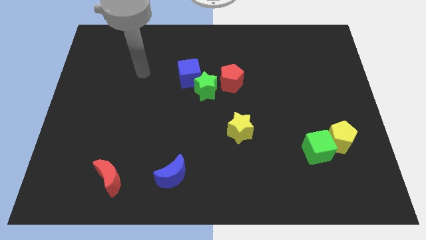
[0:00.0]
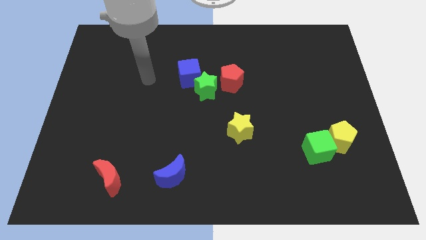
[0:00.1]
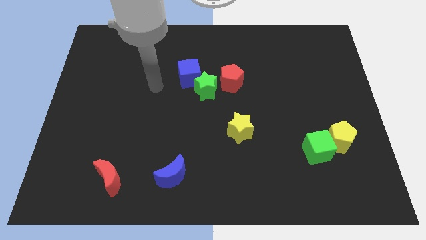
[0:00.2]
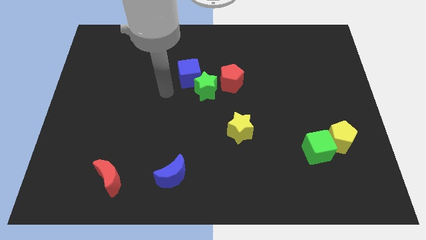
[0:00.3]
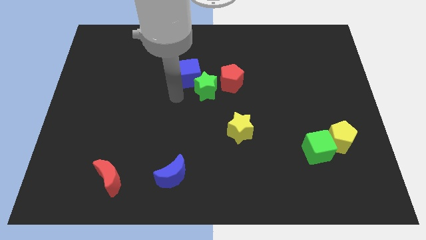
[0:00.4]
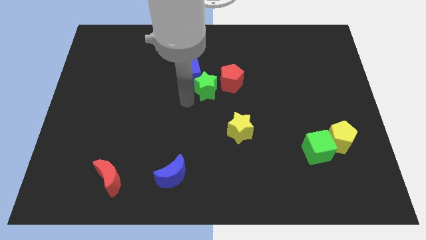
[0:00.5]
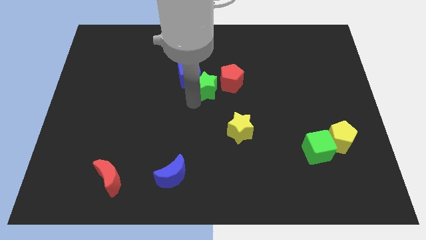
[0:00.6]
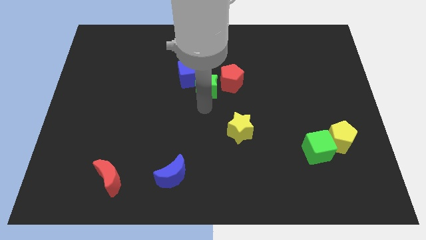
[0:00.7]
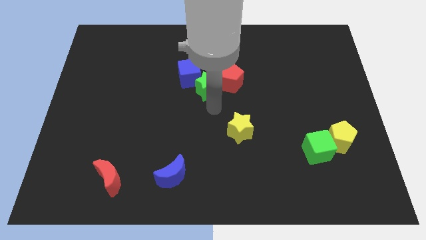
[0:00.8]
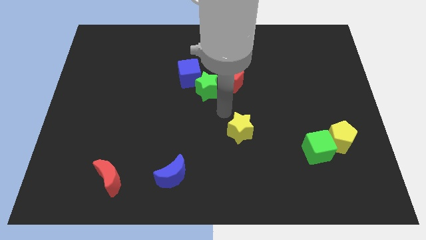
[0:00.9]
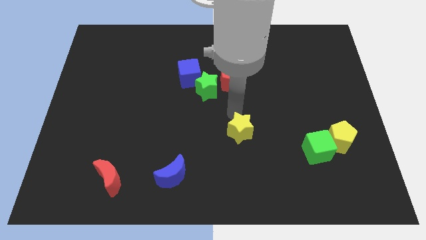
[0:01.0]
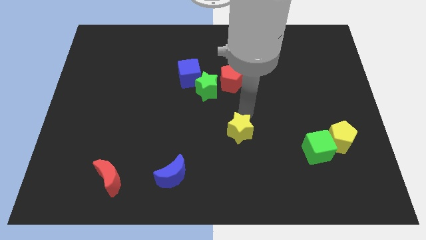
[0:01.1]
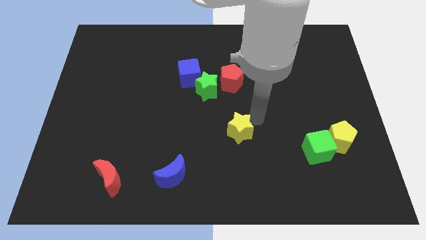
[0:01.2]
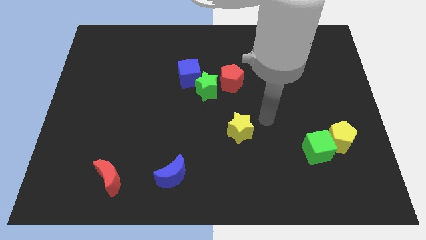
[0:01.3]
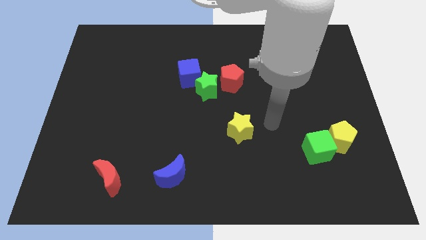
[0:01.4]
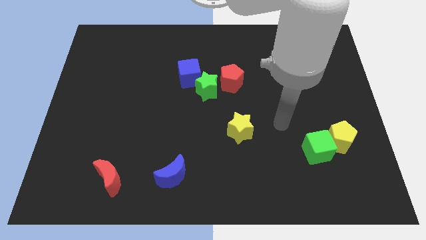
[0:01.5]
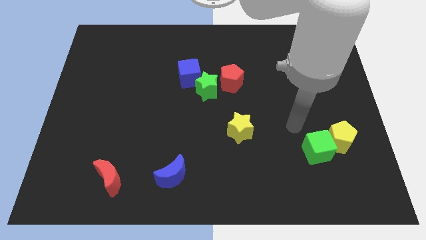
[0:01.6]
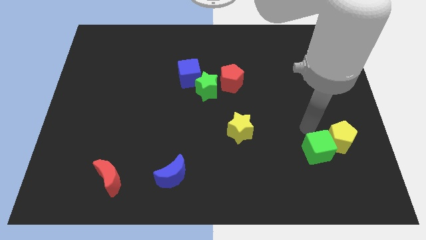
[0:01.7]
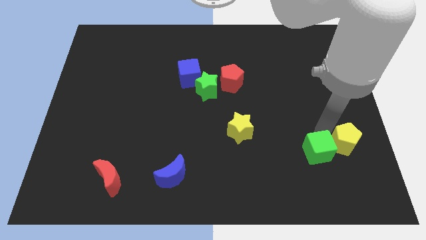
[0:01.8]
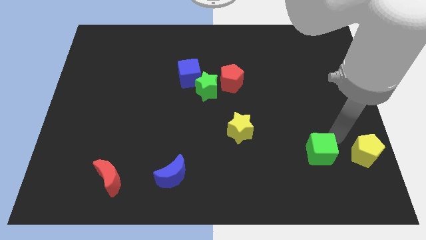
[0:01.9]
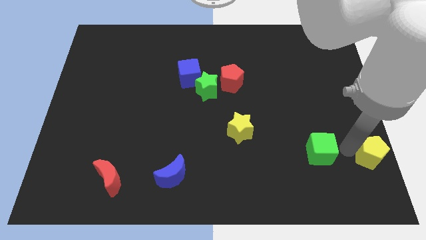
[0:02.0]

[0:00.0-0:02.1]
pull the green cube apart from the yellow pentagon

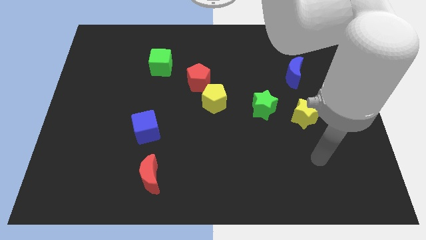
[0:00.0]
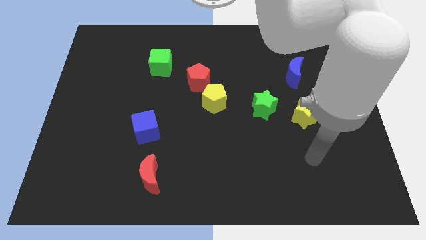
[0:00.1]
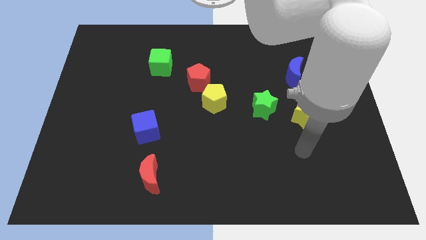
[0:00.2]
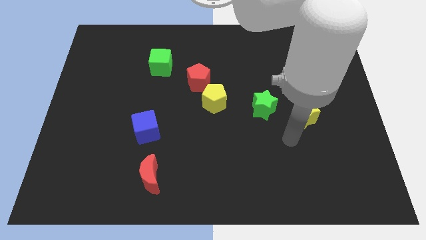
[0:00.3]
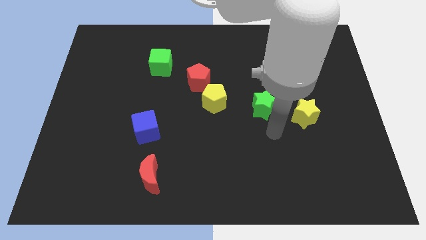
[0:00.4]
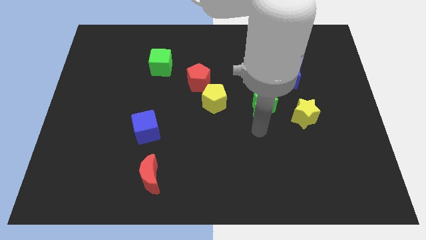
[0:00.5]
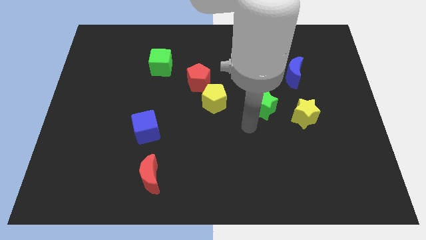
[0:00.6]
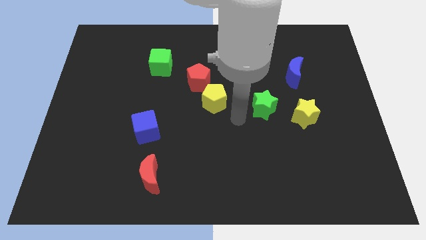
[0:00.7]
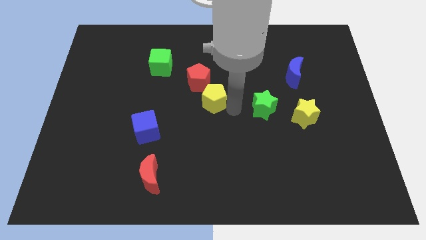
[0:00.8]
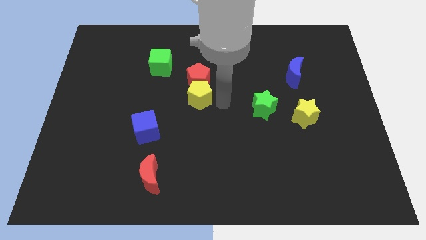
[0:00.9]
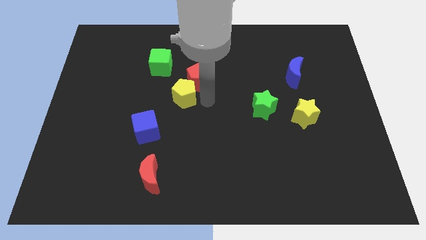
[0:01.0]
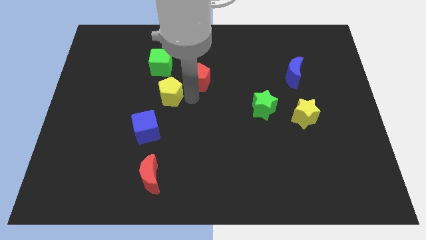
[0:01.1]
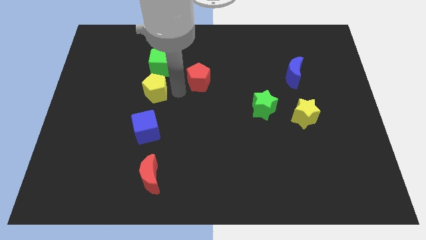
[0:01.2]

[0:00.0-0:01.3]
move the red pentagon away from the yellow pentagon

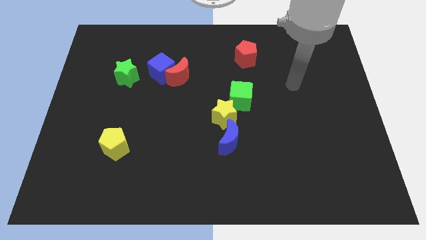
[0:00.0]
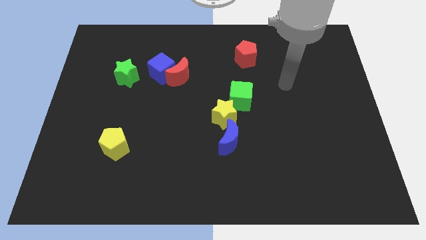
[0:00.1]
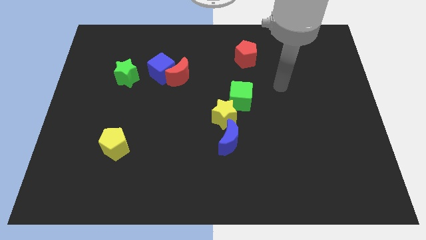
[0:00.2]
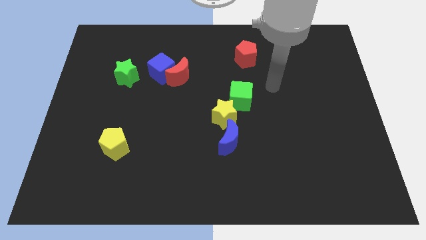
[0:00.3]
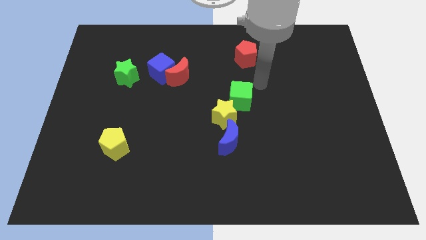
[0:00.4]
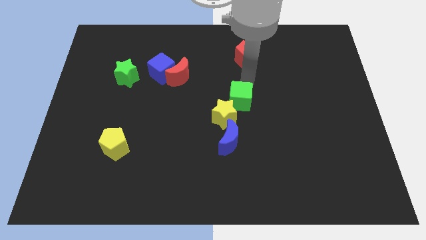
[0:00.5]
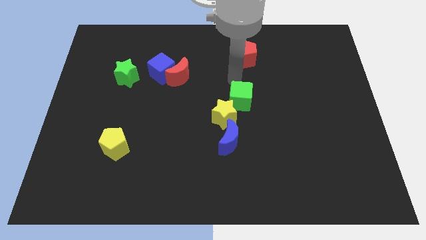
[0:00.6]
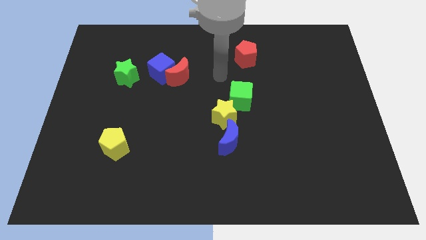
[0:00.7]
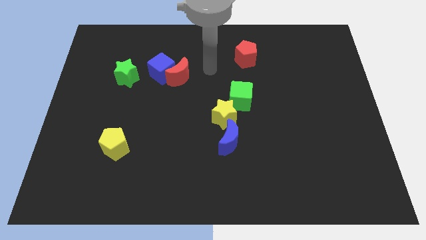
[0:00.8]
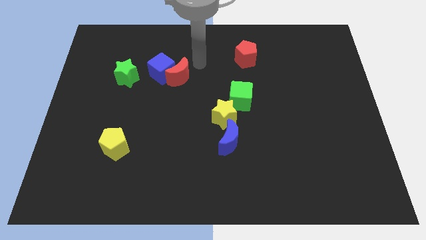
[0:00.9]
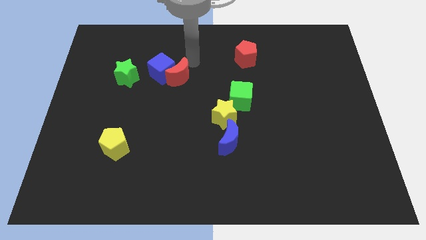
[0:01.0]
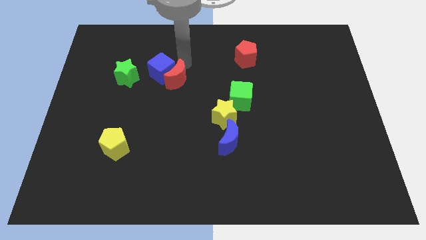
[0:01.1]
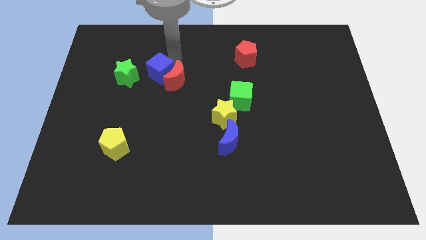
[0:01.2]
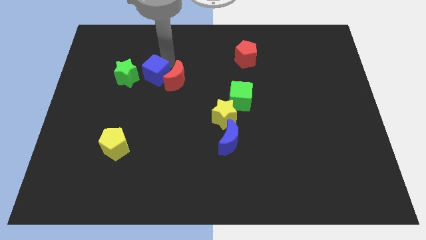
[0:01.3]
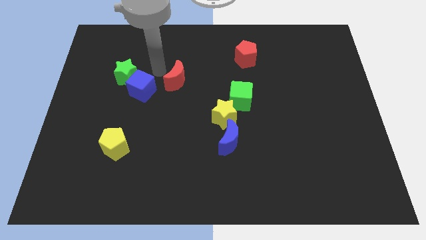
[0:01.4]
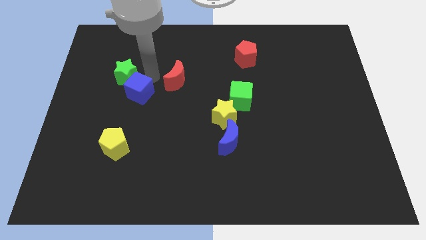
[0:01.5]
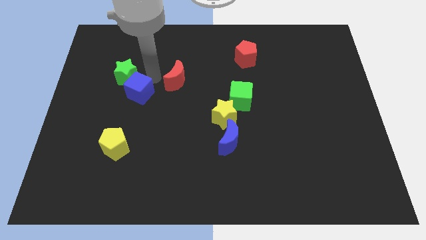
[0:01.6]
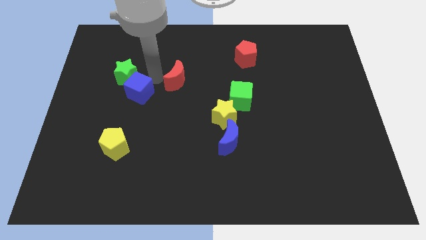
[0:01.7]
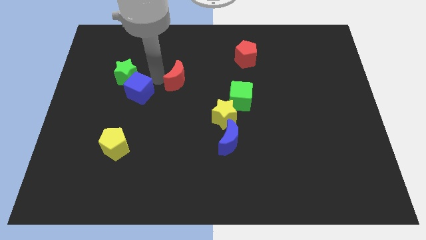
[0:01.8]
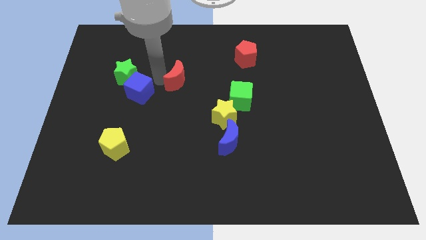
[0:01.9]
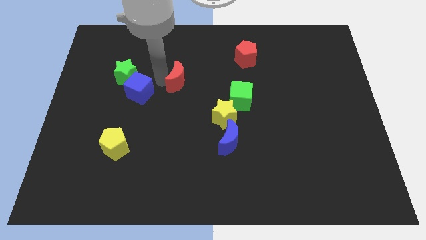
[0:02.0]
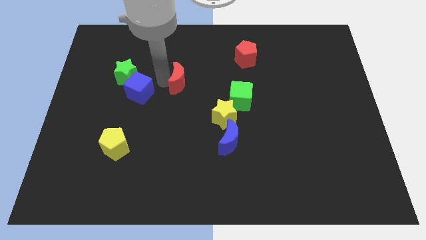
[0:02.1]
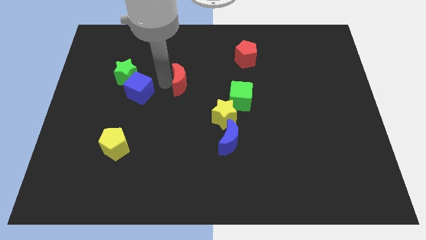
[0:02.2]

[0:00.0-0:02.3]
separate the red moon from the blue cube

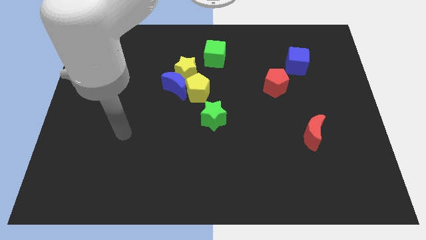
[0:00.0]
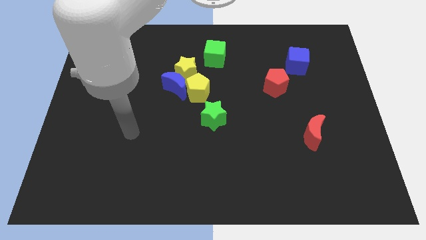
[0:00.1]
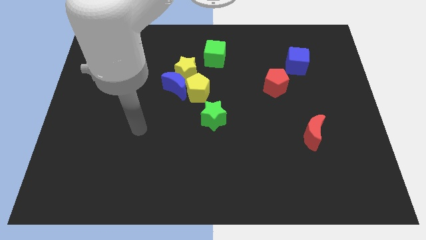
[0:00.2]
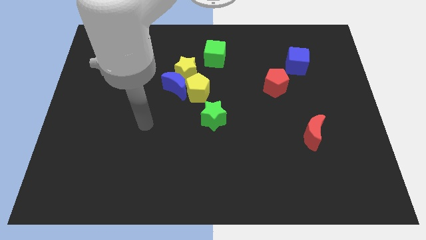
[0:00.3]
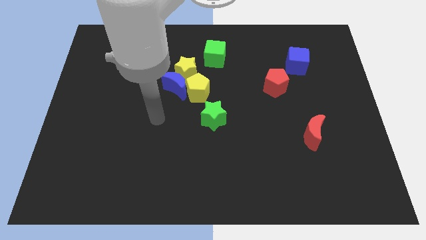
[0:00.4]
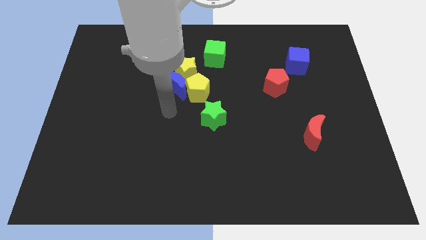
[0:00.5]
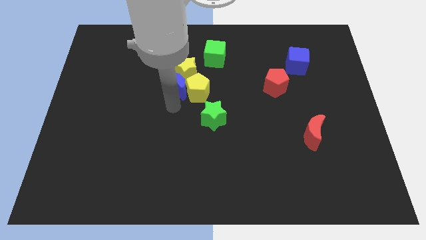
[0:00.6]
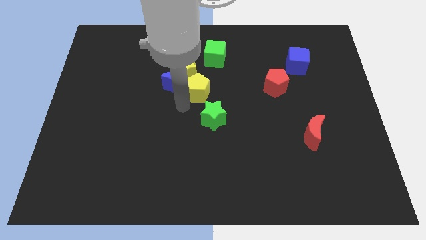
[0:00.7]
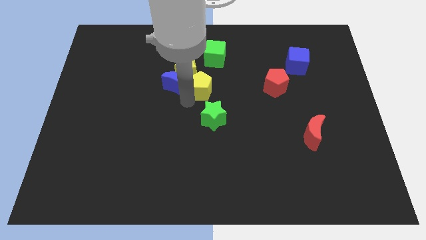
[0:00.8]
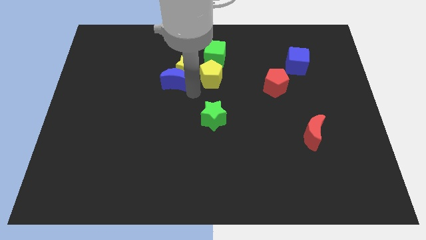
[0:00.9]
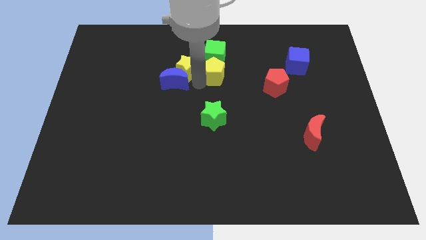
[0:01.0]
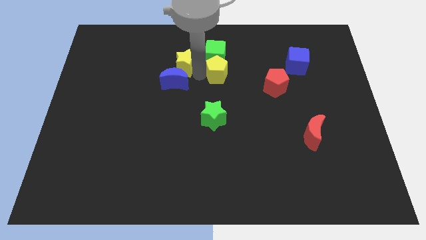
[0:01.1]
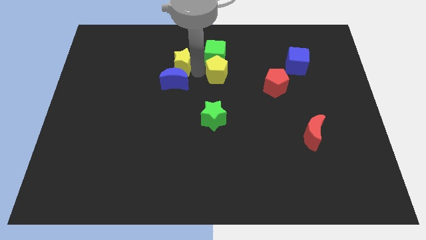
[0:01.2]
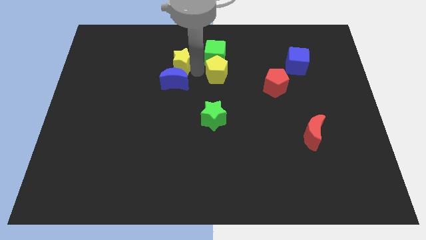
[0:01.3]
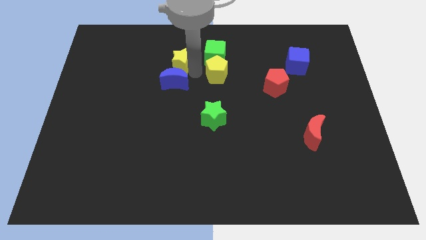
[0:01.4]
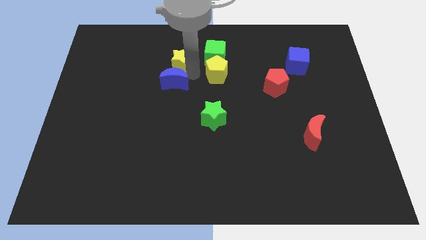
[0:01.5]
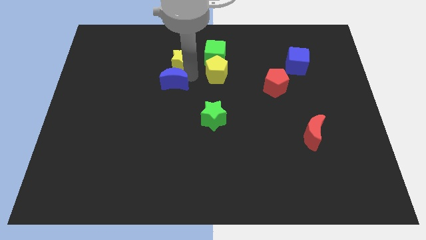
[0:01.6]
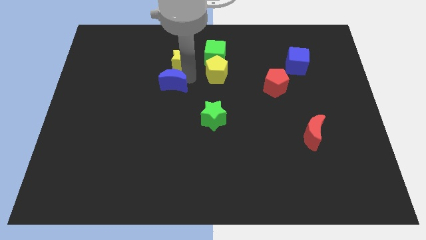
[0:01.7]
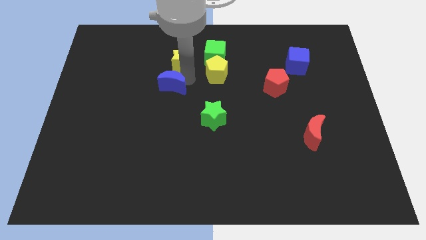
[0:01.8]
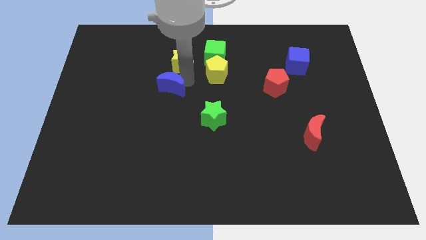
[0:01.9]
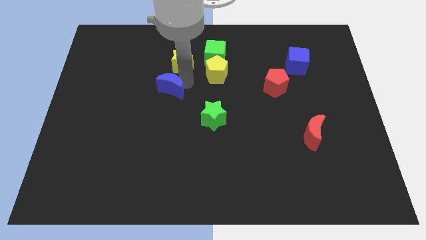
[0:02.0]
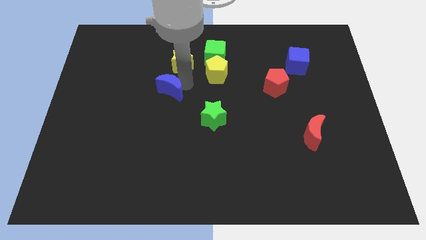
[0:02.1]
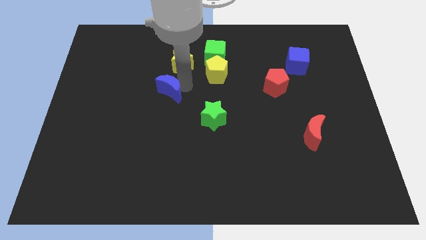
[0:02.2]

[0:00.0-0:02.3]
move the blue moon away from the yellow pentagon and yellow star

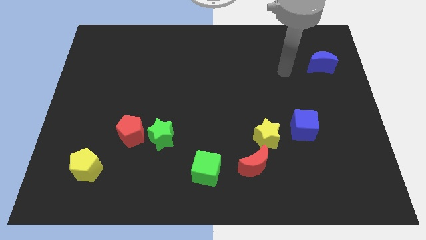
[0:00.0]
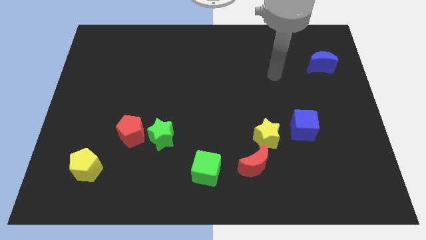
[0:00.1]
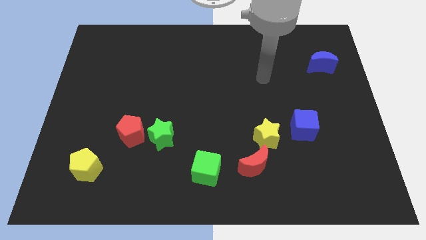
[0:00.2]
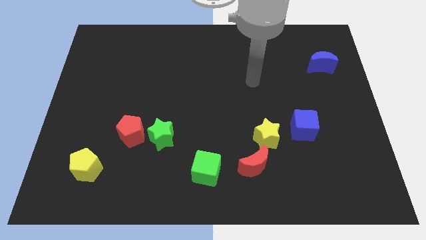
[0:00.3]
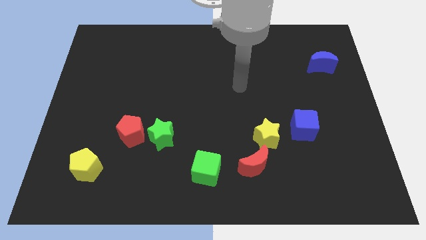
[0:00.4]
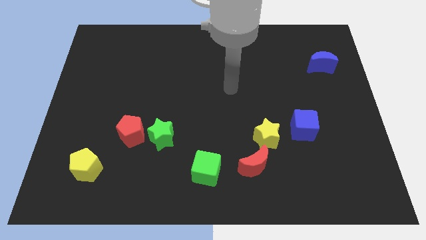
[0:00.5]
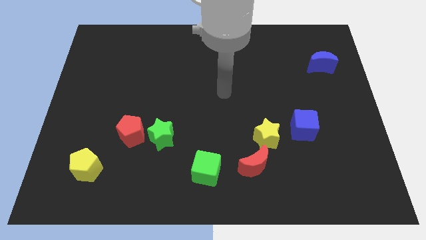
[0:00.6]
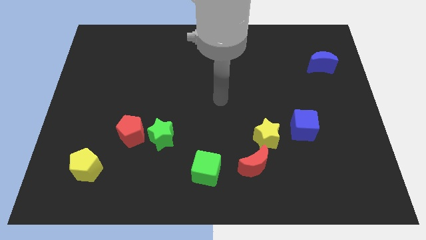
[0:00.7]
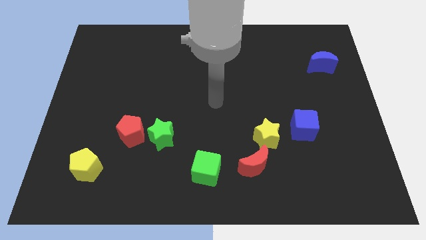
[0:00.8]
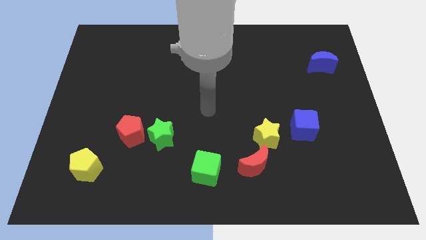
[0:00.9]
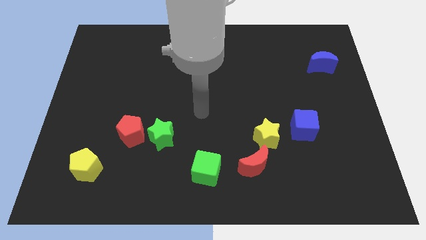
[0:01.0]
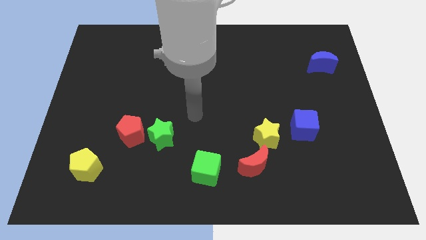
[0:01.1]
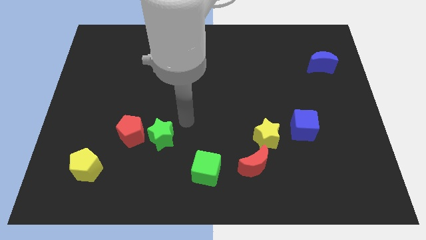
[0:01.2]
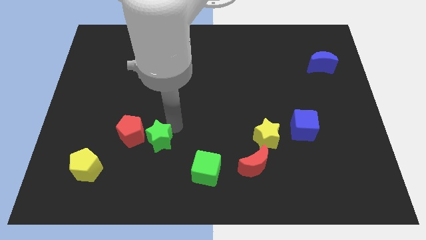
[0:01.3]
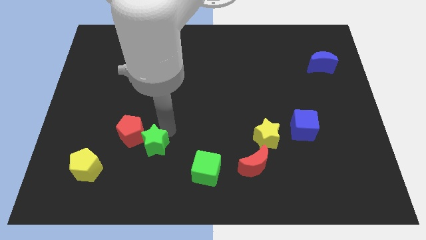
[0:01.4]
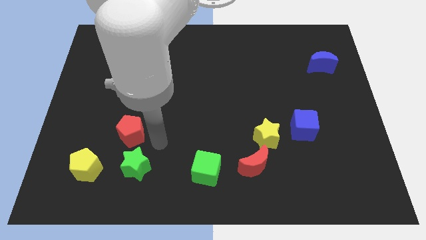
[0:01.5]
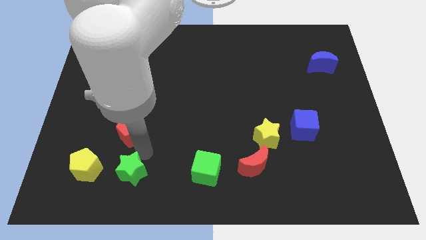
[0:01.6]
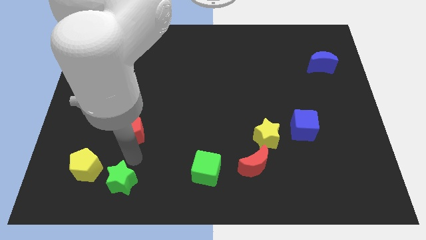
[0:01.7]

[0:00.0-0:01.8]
pull the red pentagon apart from the green star
